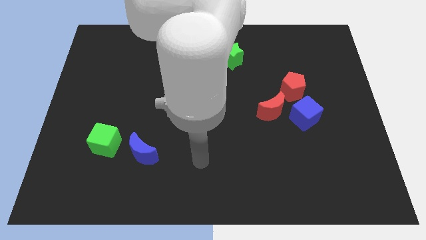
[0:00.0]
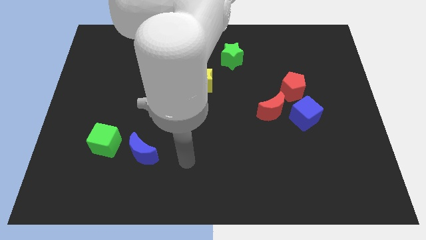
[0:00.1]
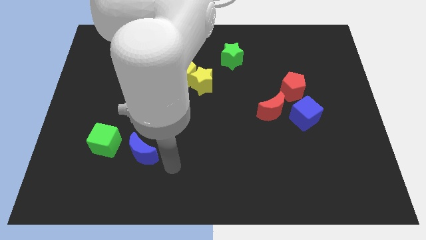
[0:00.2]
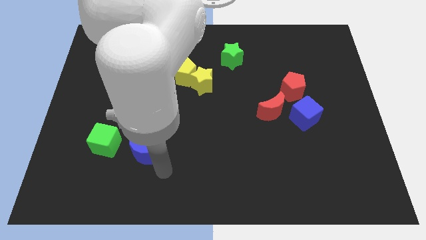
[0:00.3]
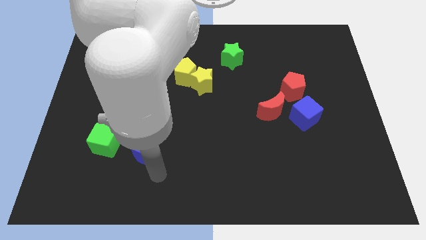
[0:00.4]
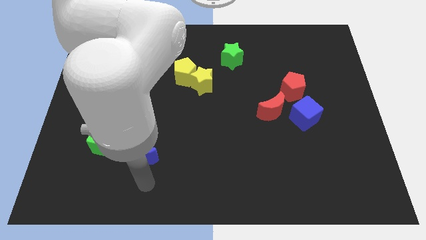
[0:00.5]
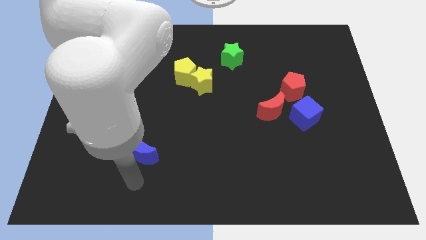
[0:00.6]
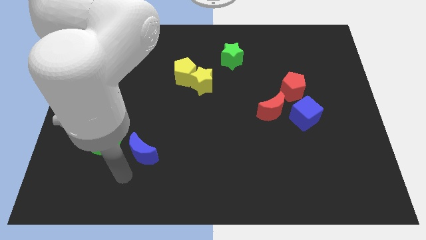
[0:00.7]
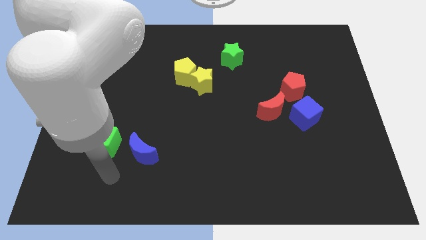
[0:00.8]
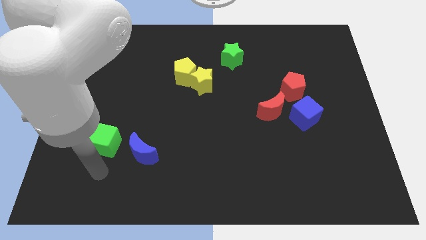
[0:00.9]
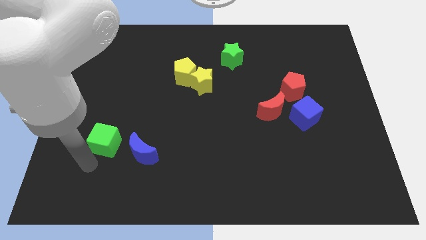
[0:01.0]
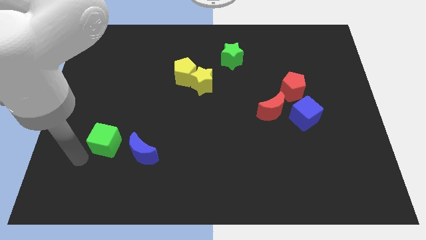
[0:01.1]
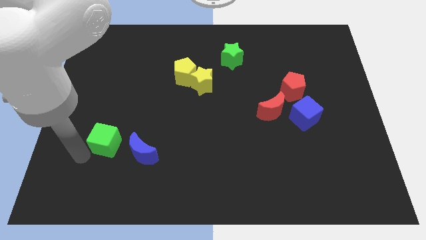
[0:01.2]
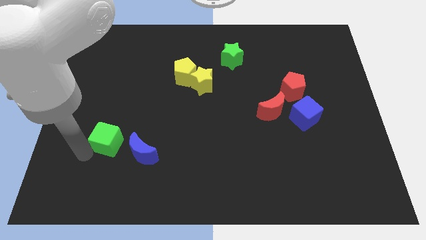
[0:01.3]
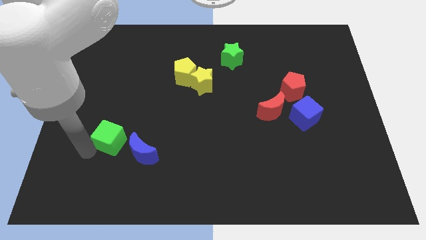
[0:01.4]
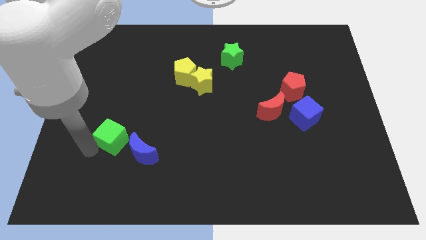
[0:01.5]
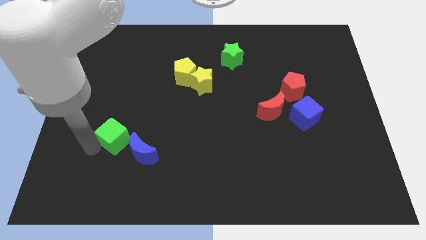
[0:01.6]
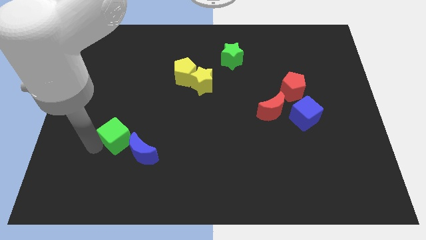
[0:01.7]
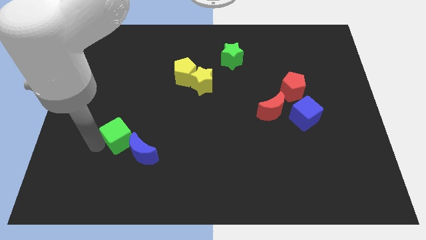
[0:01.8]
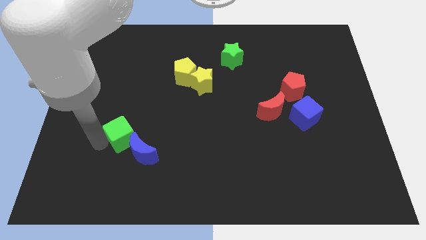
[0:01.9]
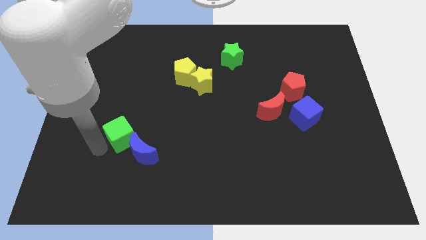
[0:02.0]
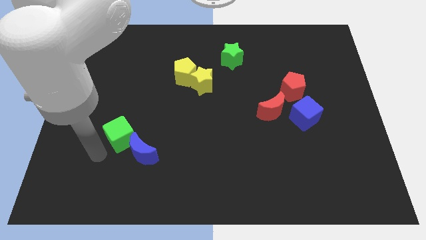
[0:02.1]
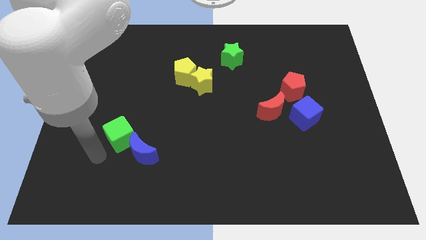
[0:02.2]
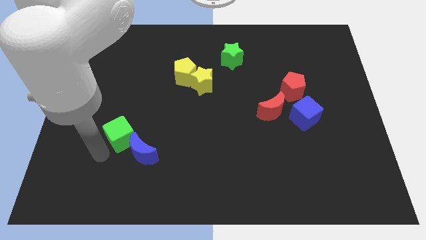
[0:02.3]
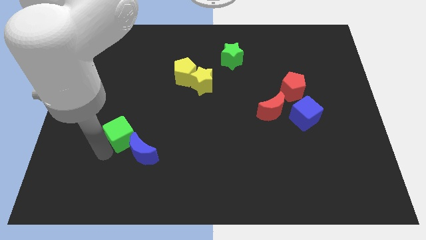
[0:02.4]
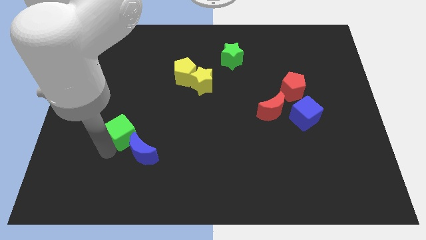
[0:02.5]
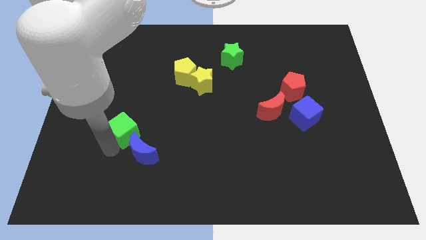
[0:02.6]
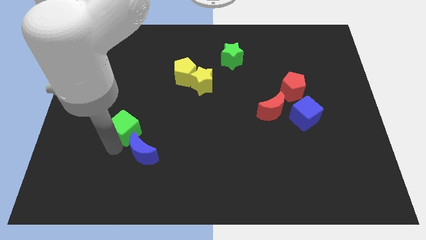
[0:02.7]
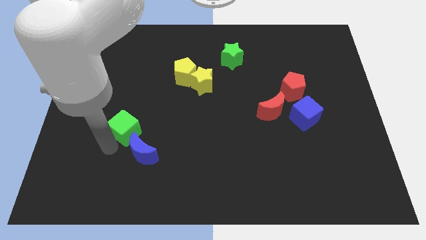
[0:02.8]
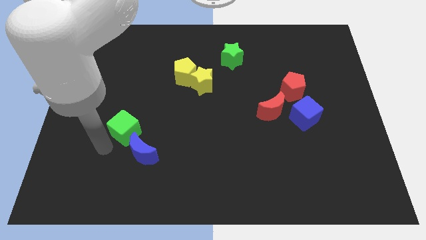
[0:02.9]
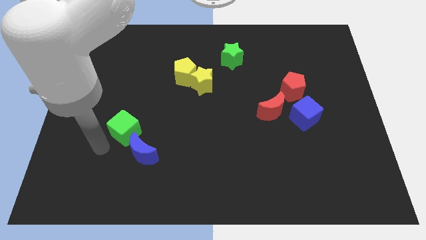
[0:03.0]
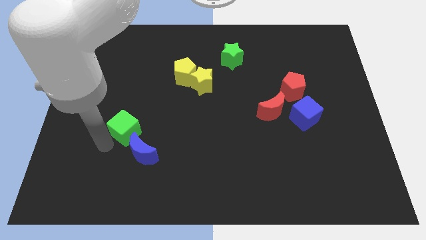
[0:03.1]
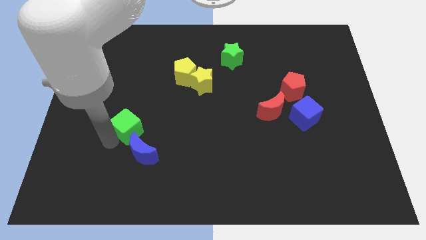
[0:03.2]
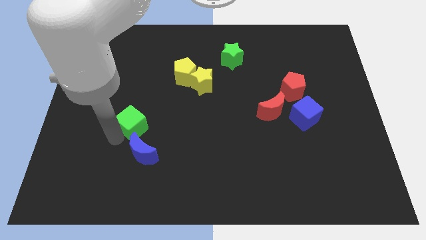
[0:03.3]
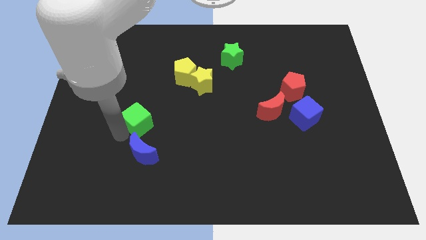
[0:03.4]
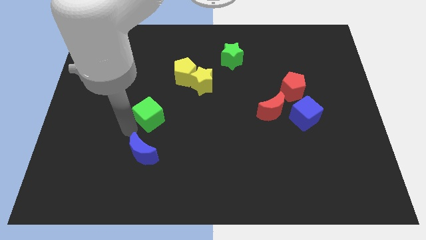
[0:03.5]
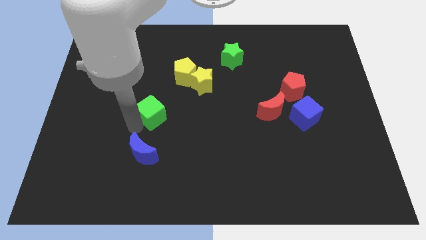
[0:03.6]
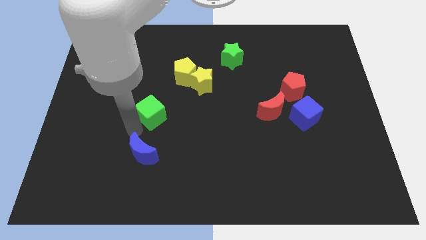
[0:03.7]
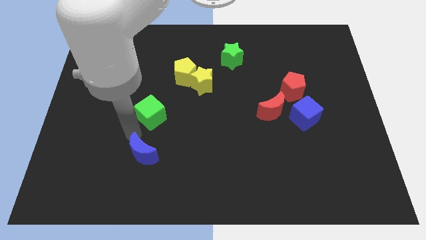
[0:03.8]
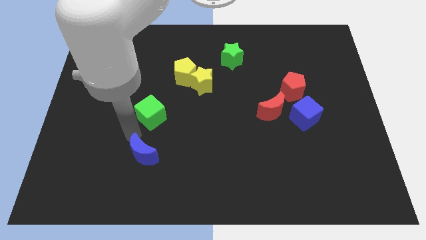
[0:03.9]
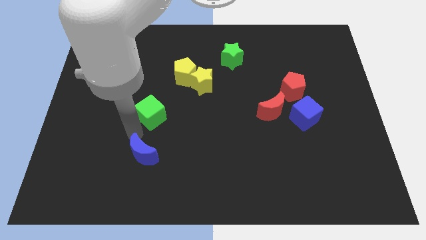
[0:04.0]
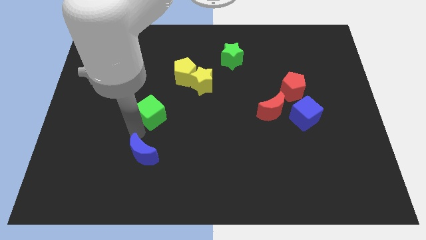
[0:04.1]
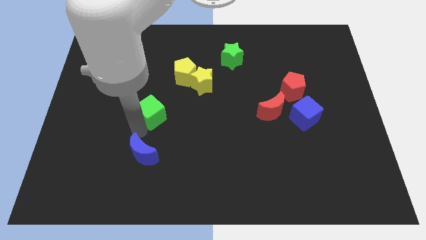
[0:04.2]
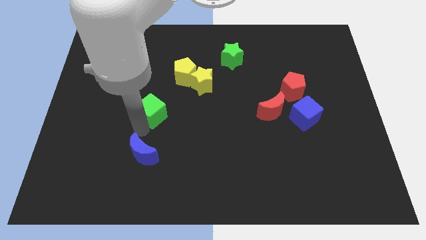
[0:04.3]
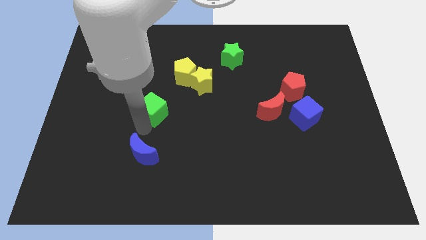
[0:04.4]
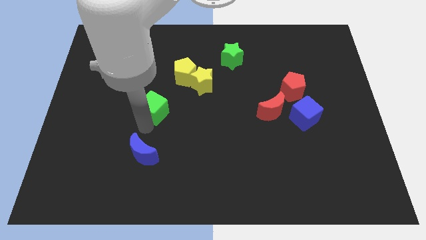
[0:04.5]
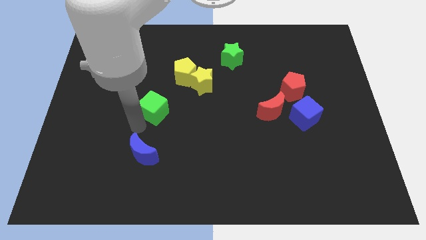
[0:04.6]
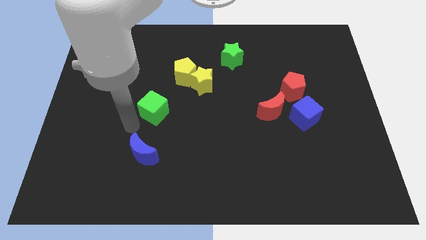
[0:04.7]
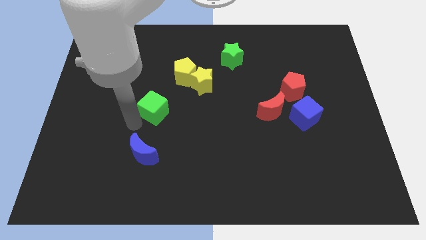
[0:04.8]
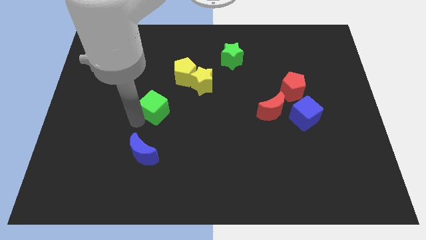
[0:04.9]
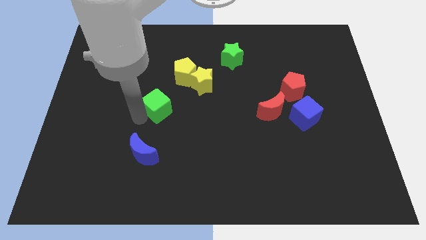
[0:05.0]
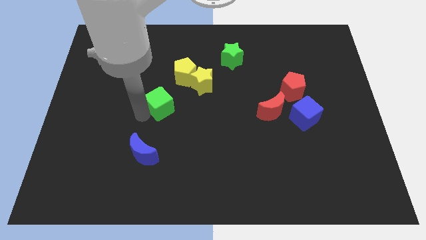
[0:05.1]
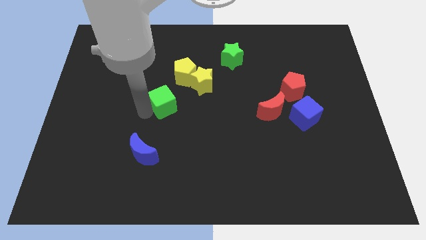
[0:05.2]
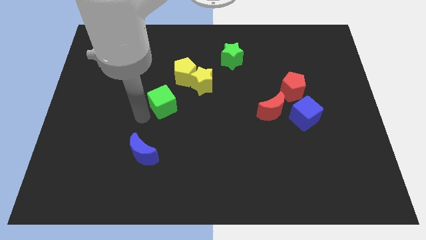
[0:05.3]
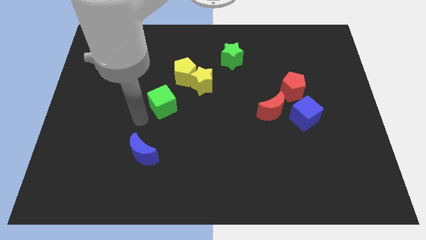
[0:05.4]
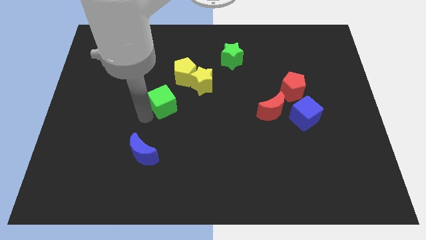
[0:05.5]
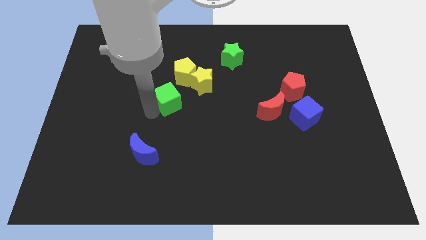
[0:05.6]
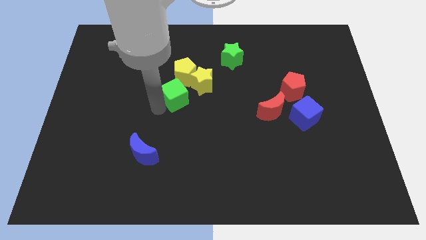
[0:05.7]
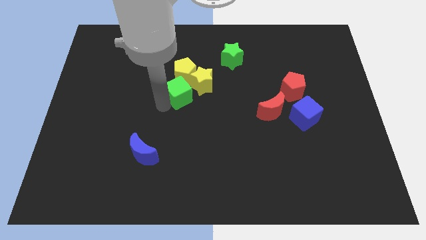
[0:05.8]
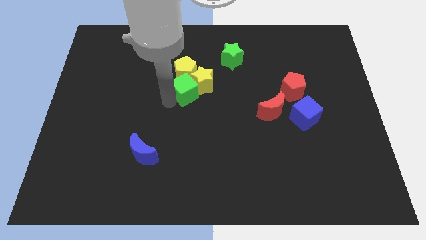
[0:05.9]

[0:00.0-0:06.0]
push the green cube close to the yellow star

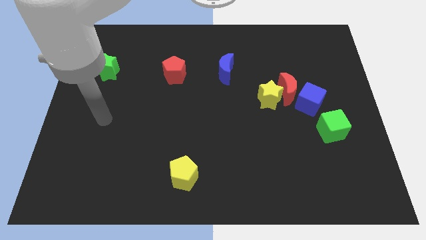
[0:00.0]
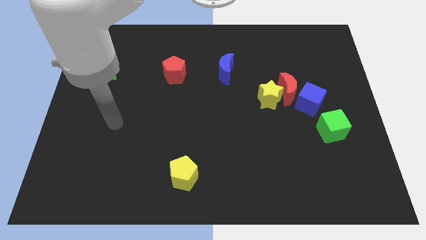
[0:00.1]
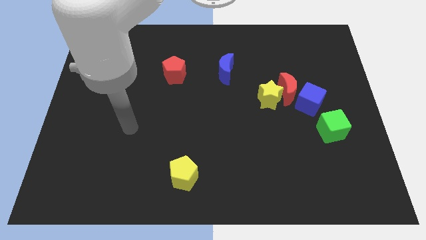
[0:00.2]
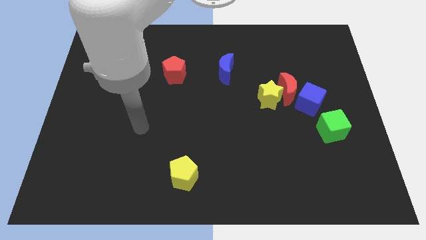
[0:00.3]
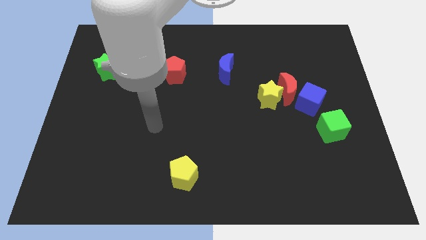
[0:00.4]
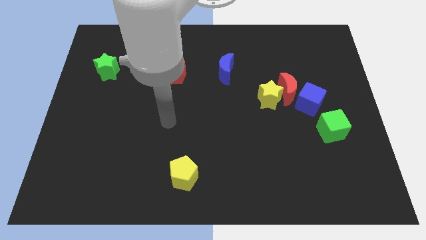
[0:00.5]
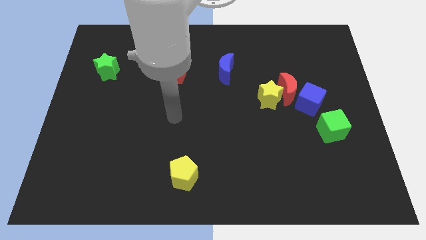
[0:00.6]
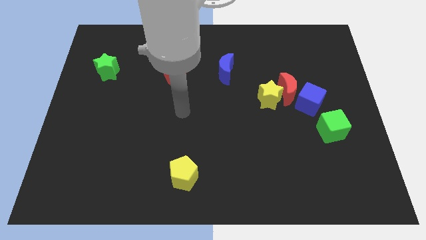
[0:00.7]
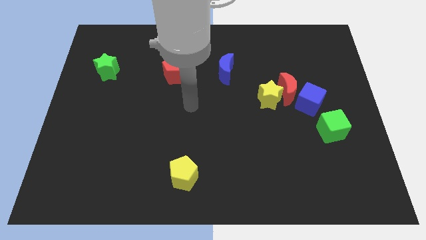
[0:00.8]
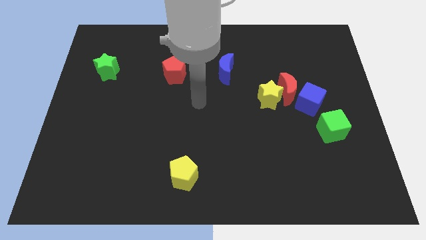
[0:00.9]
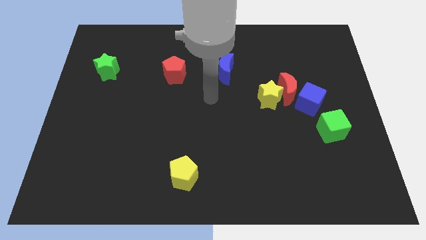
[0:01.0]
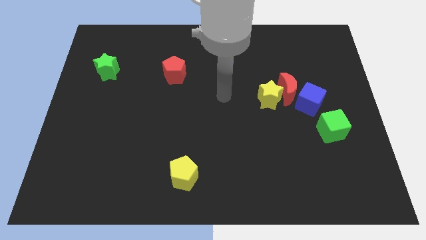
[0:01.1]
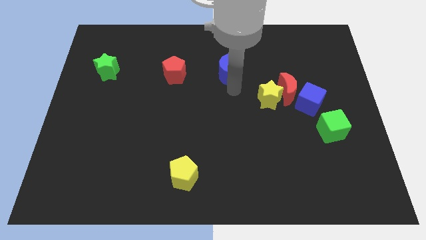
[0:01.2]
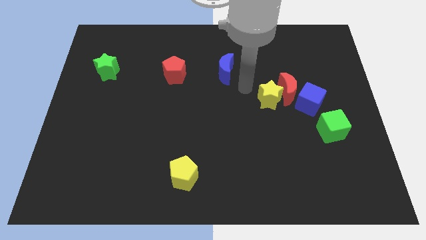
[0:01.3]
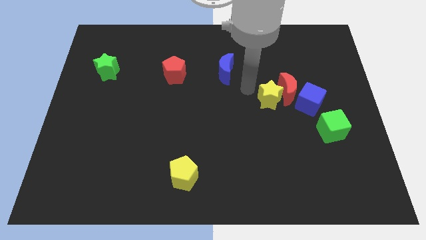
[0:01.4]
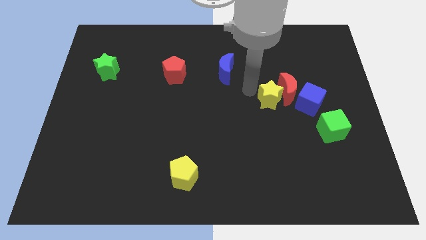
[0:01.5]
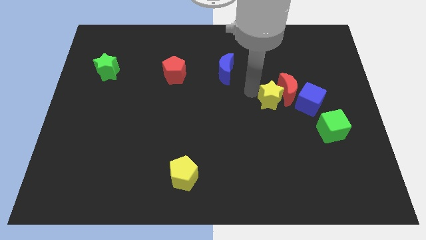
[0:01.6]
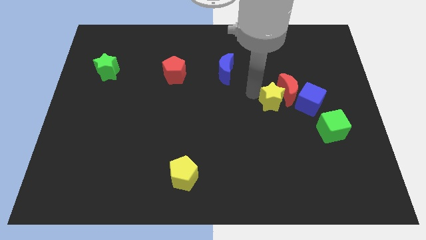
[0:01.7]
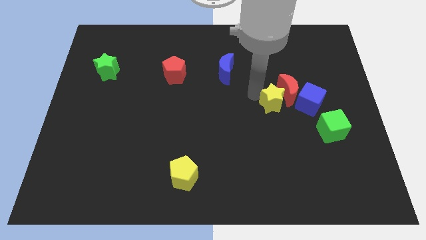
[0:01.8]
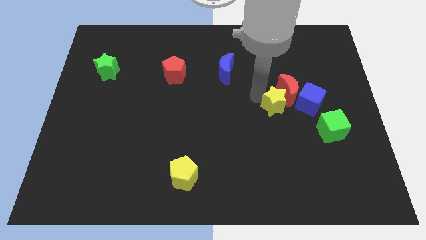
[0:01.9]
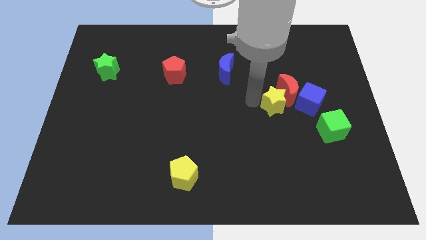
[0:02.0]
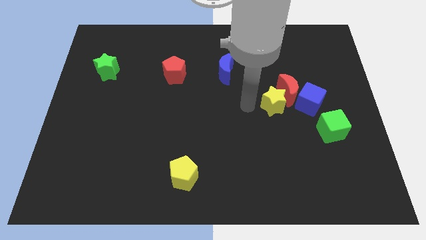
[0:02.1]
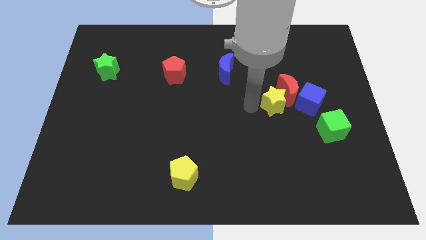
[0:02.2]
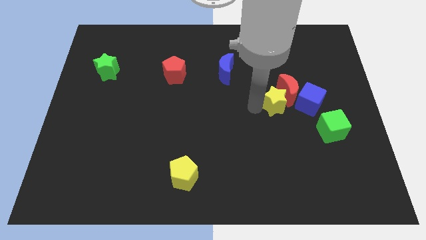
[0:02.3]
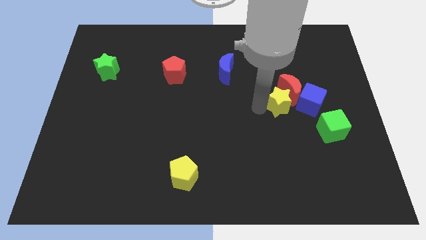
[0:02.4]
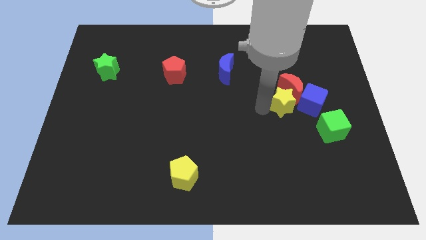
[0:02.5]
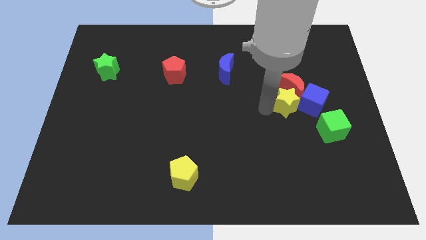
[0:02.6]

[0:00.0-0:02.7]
push the yellow star towards the blue cube
